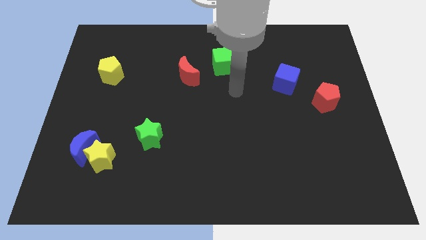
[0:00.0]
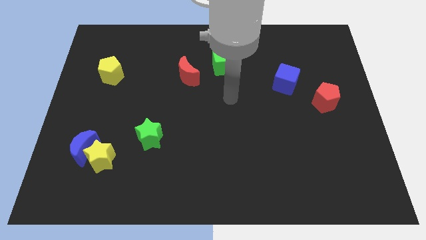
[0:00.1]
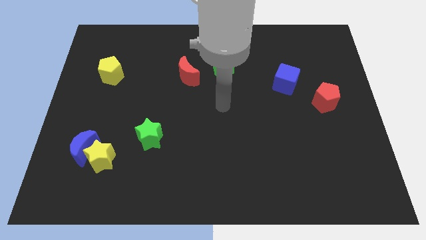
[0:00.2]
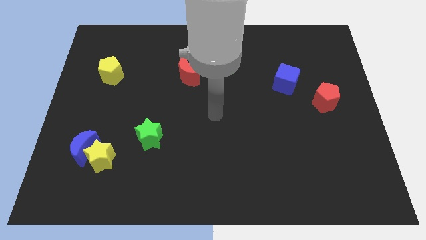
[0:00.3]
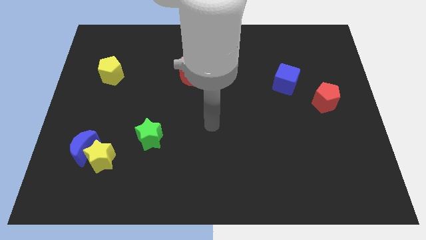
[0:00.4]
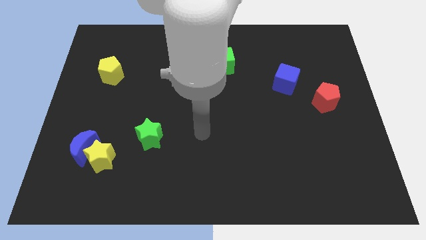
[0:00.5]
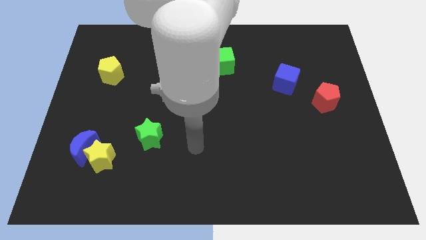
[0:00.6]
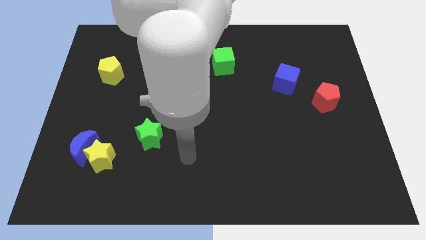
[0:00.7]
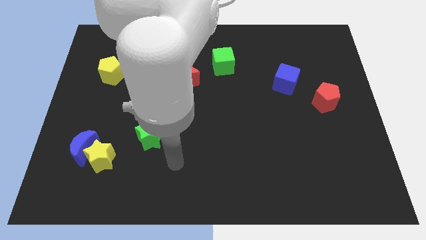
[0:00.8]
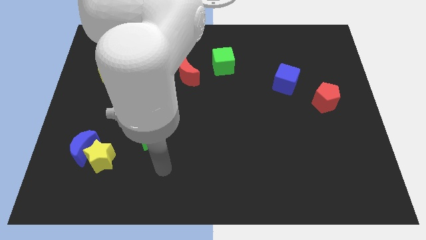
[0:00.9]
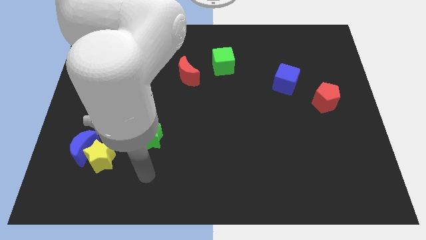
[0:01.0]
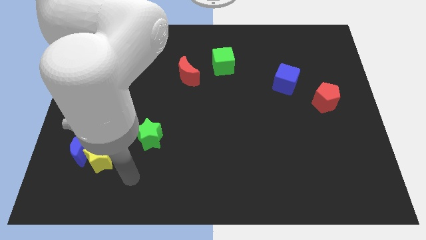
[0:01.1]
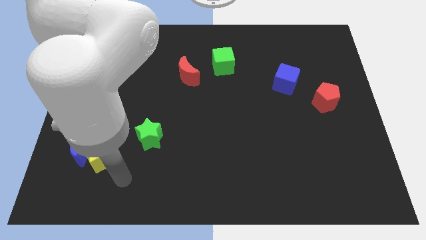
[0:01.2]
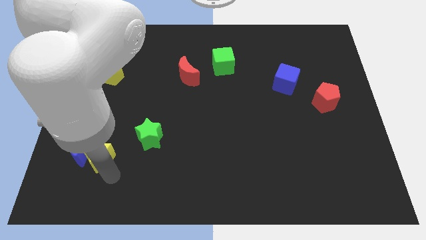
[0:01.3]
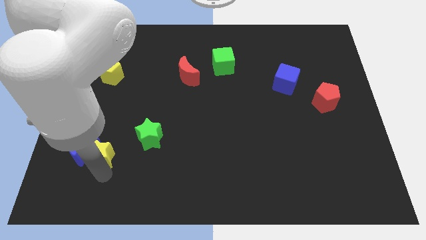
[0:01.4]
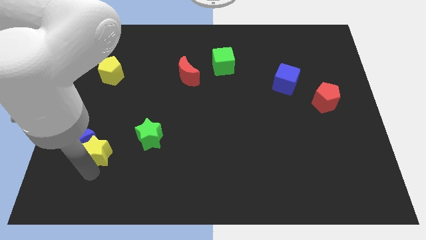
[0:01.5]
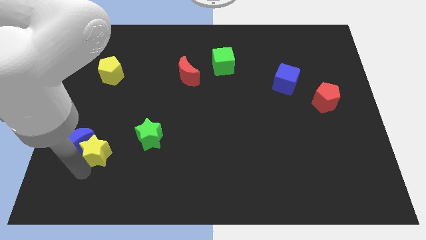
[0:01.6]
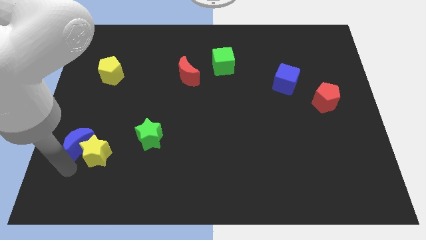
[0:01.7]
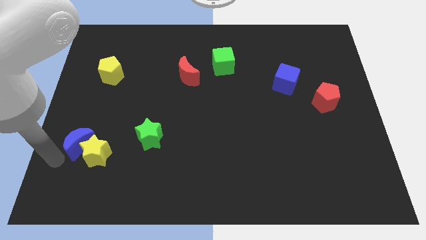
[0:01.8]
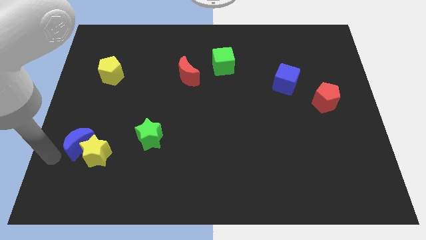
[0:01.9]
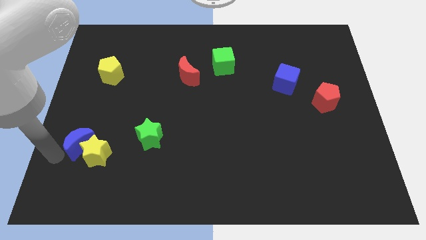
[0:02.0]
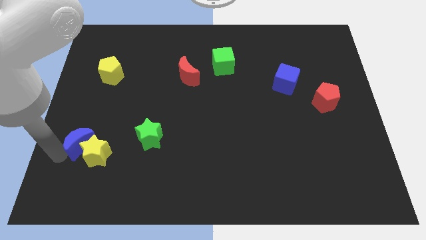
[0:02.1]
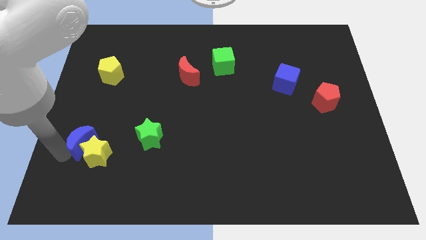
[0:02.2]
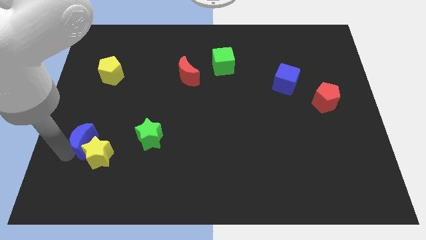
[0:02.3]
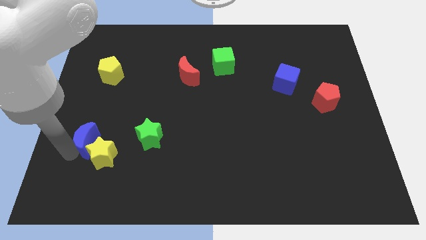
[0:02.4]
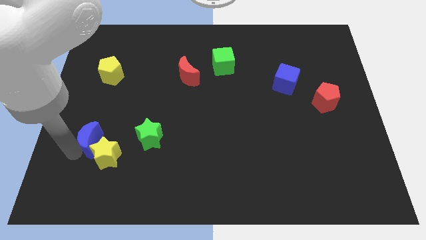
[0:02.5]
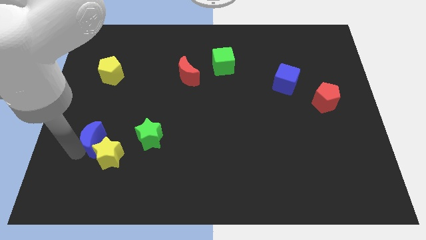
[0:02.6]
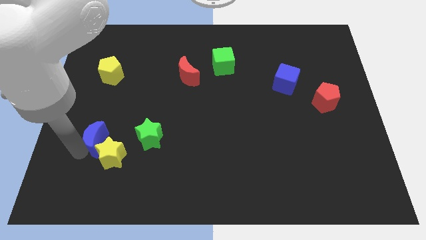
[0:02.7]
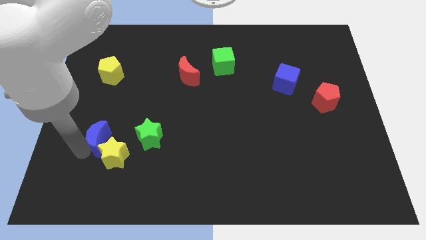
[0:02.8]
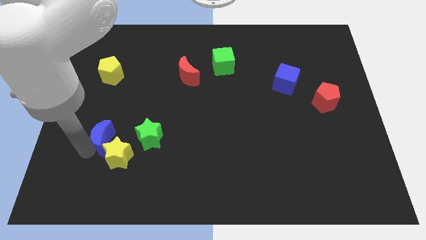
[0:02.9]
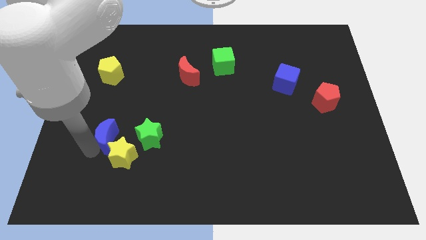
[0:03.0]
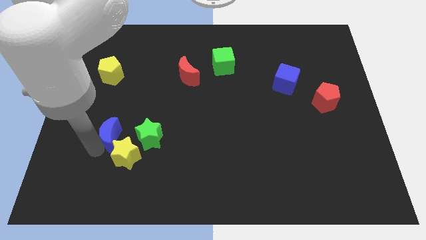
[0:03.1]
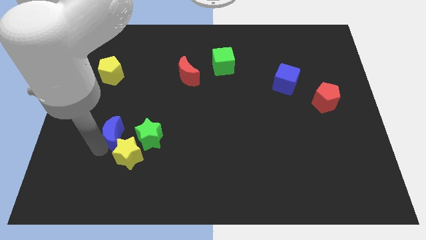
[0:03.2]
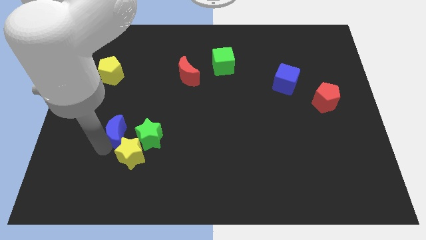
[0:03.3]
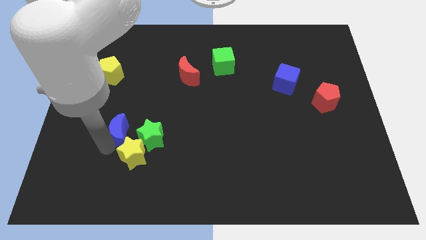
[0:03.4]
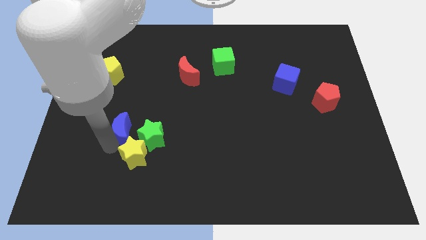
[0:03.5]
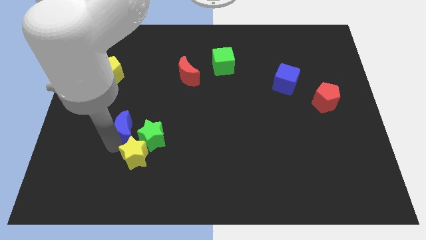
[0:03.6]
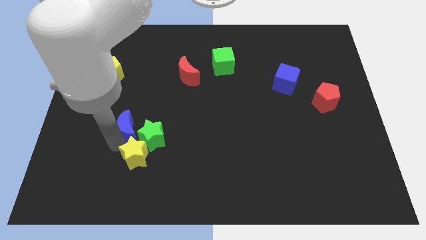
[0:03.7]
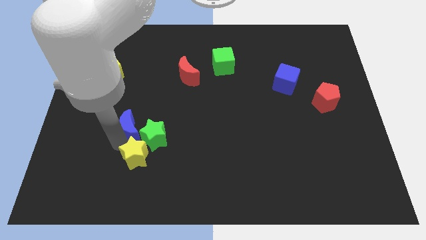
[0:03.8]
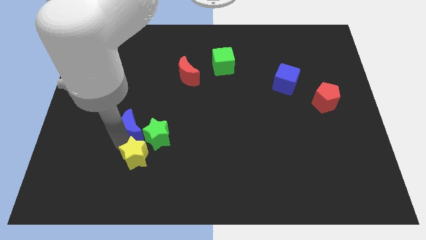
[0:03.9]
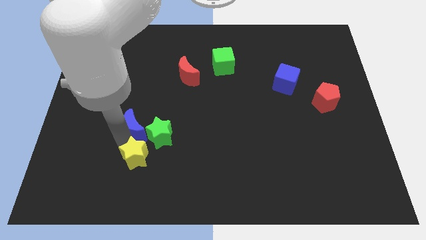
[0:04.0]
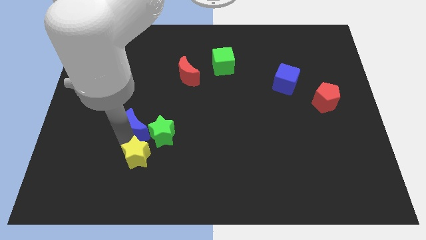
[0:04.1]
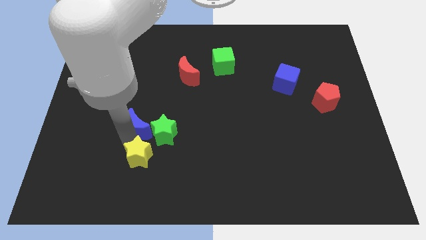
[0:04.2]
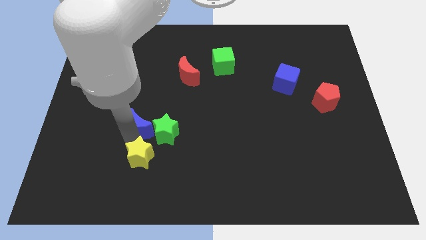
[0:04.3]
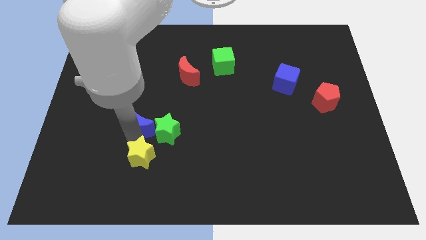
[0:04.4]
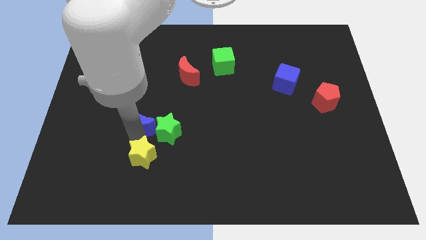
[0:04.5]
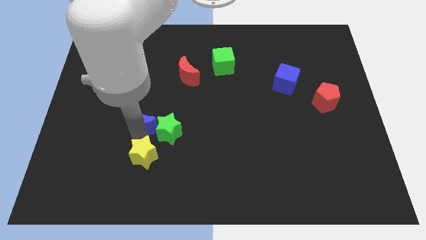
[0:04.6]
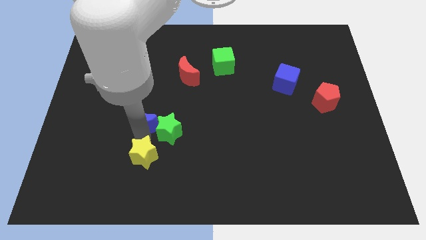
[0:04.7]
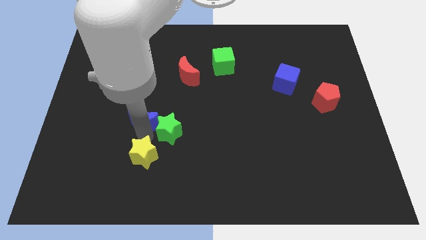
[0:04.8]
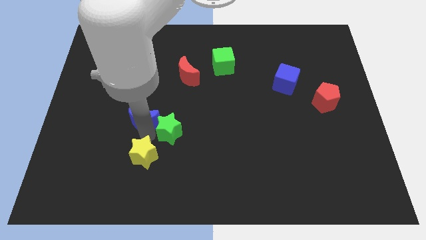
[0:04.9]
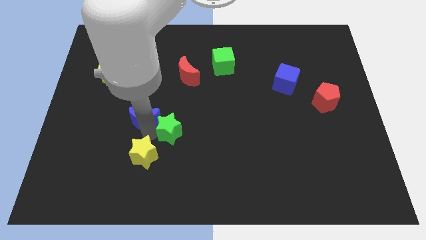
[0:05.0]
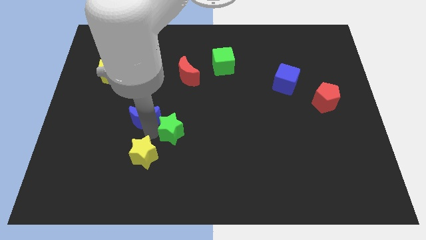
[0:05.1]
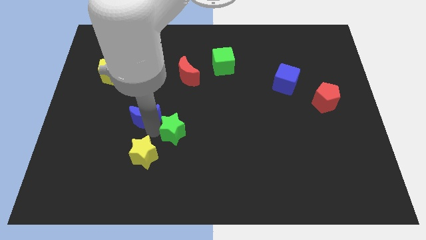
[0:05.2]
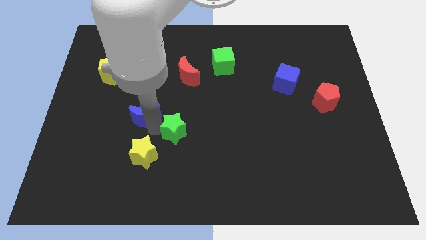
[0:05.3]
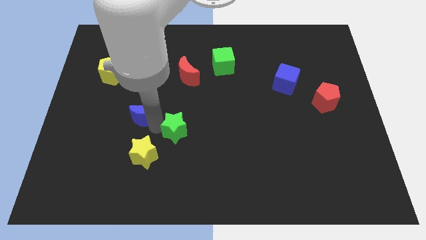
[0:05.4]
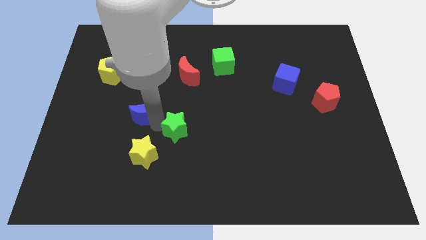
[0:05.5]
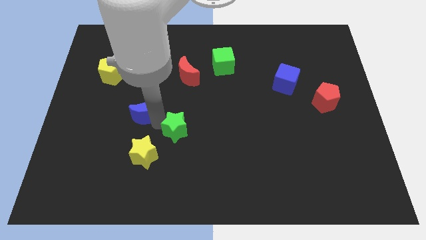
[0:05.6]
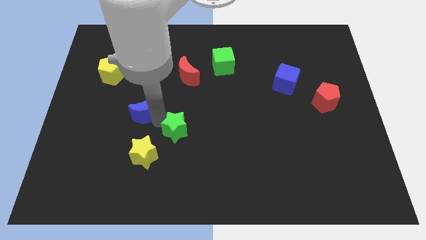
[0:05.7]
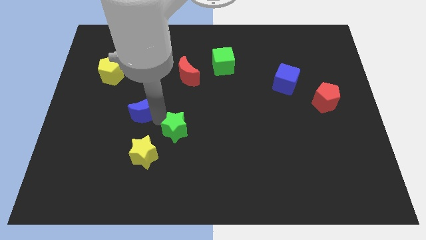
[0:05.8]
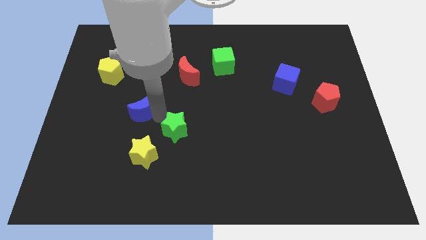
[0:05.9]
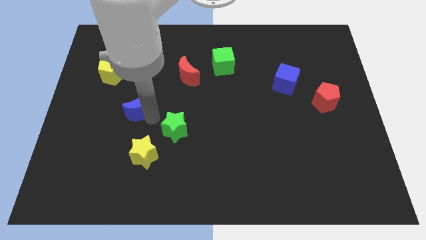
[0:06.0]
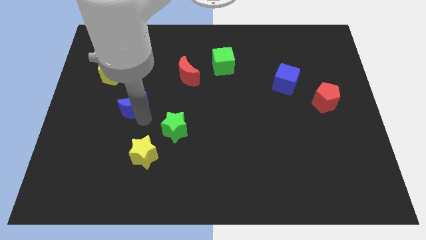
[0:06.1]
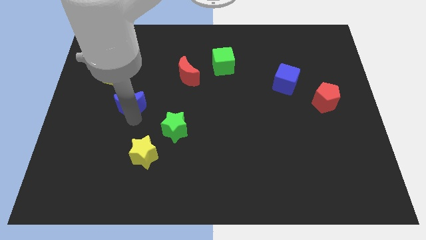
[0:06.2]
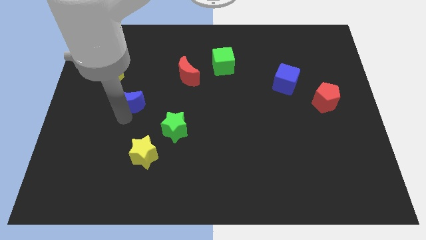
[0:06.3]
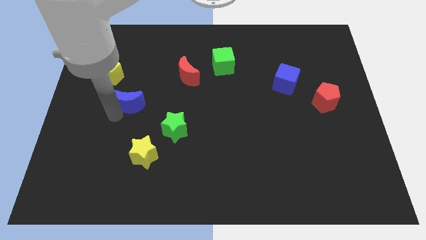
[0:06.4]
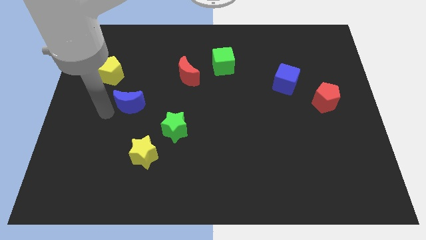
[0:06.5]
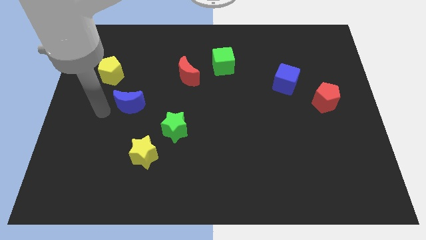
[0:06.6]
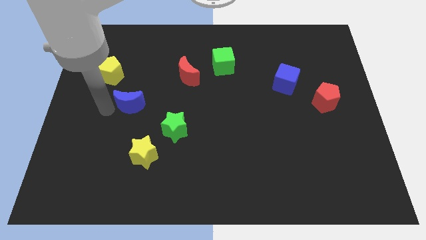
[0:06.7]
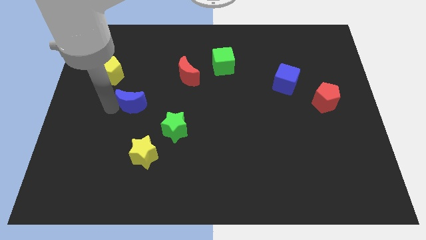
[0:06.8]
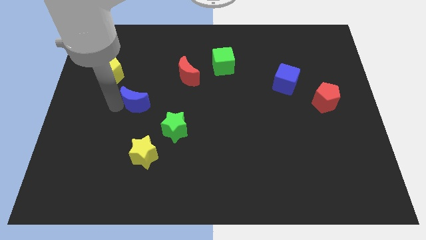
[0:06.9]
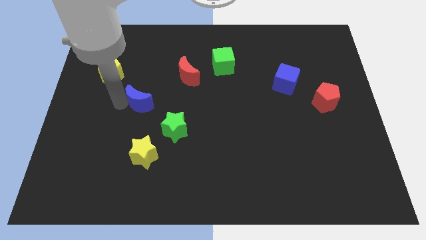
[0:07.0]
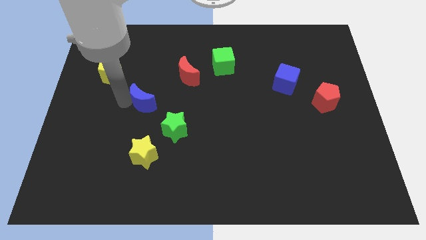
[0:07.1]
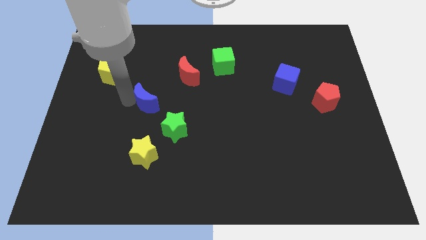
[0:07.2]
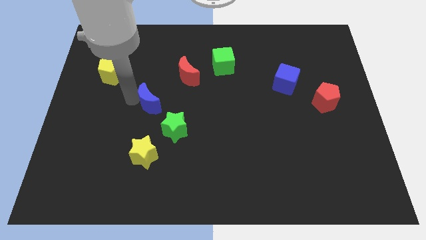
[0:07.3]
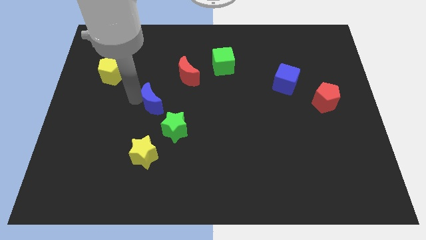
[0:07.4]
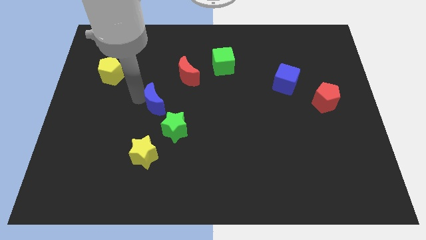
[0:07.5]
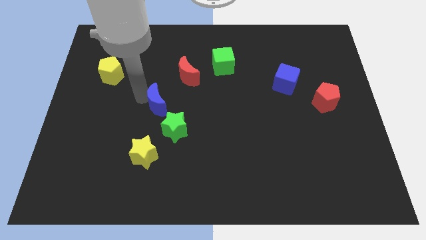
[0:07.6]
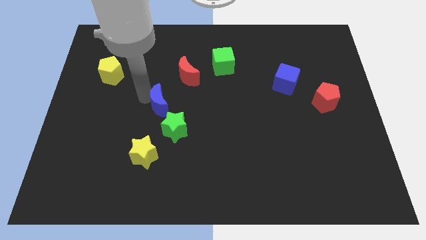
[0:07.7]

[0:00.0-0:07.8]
put the blue moon to the top side of the green star

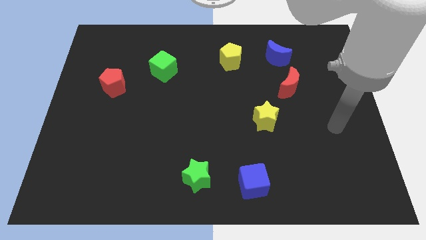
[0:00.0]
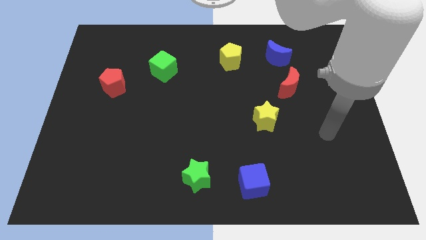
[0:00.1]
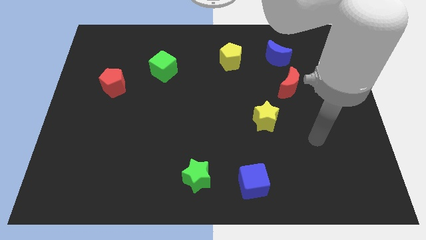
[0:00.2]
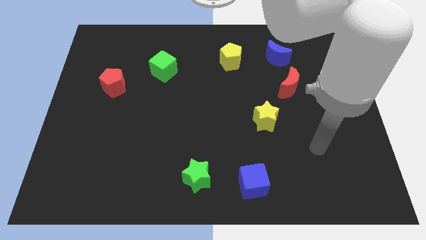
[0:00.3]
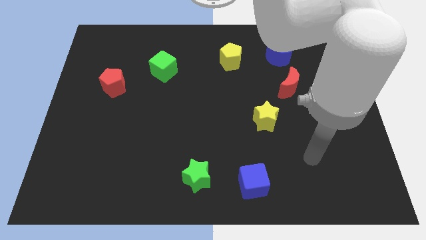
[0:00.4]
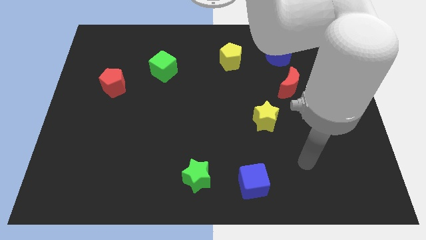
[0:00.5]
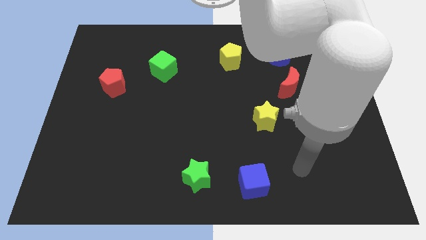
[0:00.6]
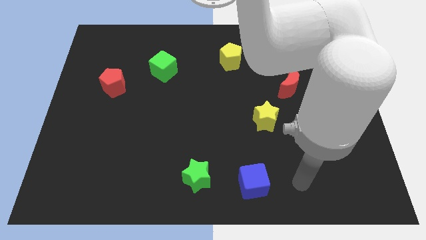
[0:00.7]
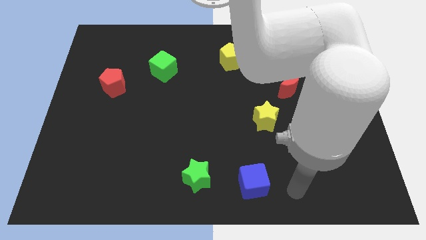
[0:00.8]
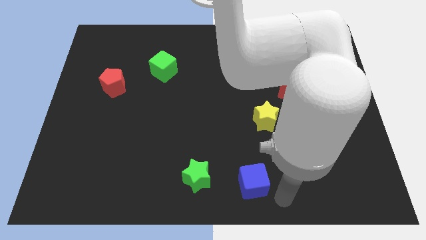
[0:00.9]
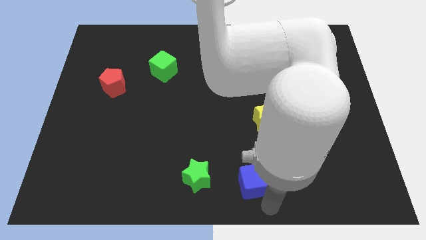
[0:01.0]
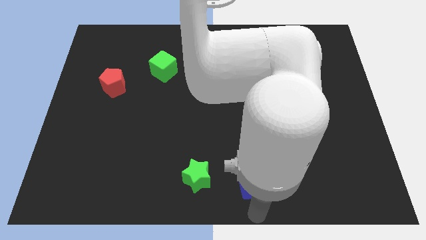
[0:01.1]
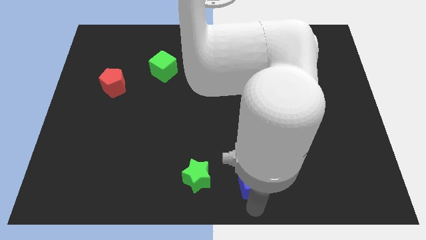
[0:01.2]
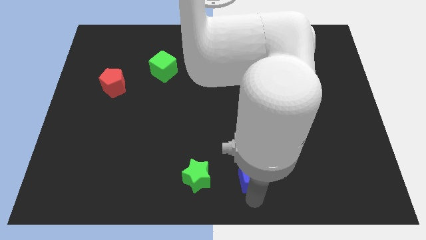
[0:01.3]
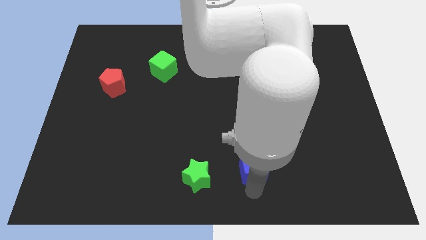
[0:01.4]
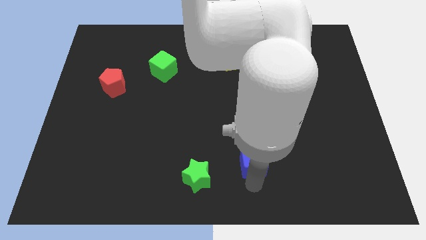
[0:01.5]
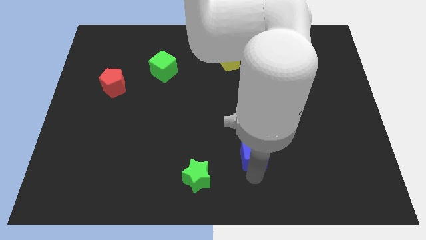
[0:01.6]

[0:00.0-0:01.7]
slide the blue cube to the bottom left of the yellow star
